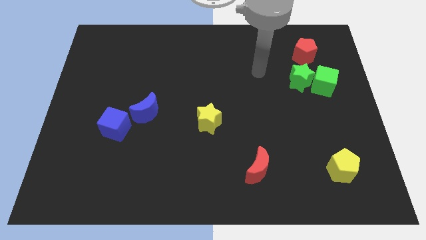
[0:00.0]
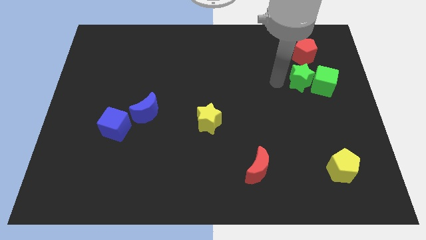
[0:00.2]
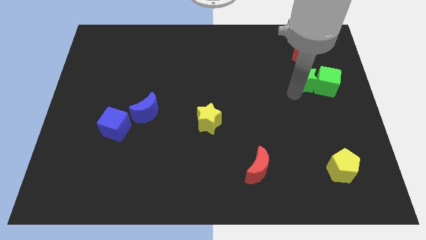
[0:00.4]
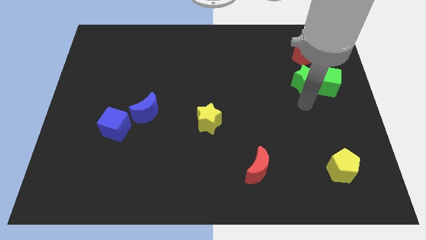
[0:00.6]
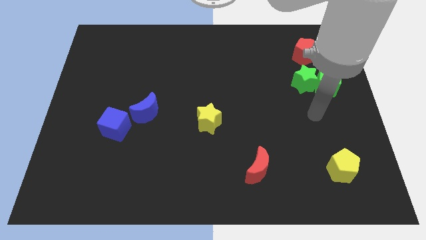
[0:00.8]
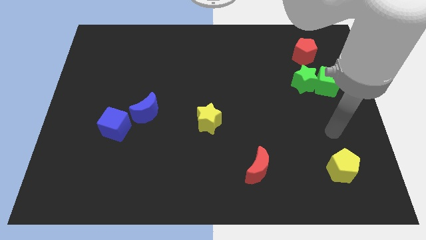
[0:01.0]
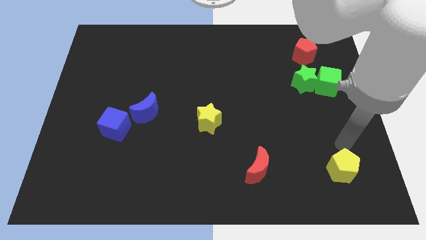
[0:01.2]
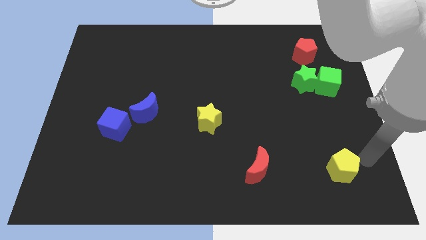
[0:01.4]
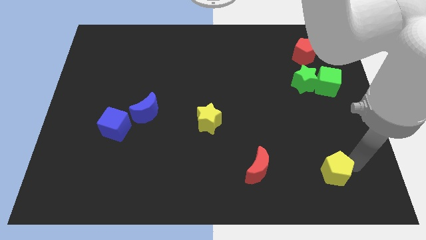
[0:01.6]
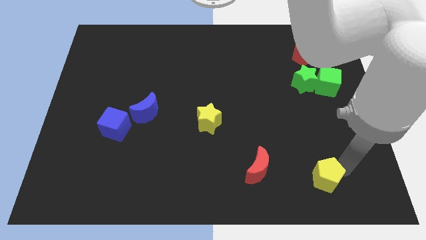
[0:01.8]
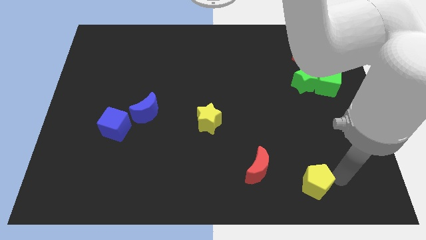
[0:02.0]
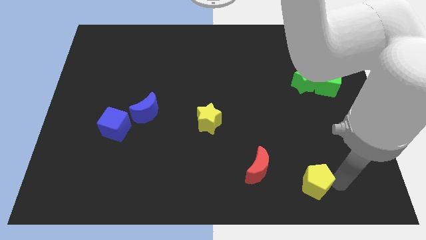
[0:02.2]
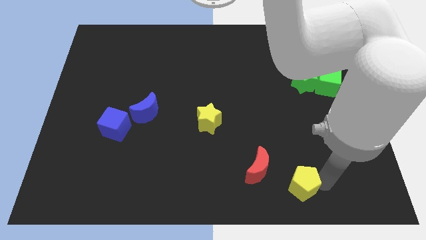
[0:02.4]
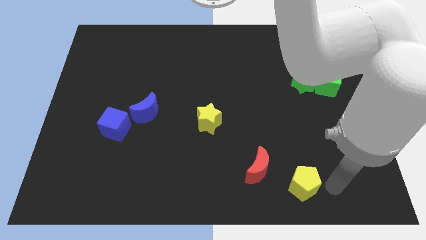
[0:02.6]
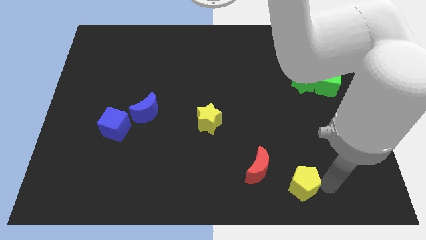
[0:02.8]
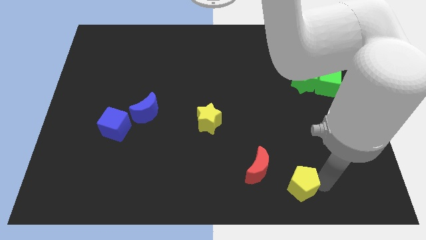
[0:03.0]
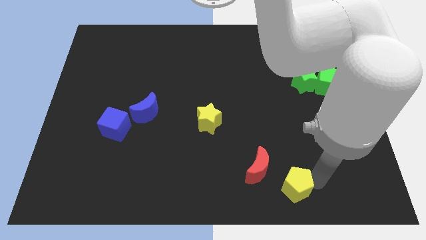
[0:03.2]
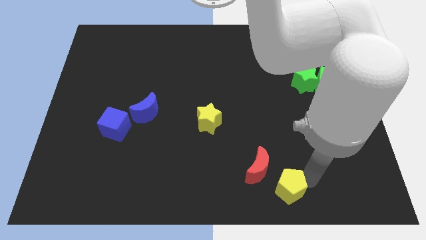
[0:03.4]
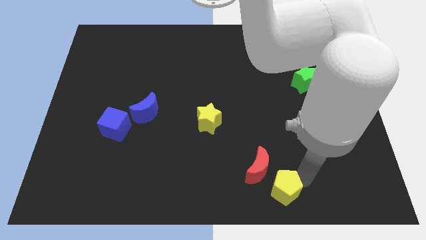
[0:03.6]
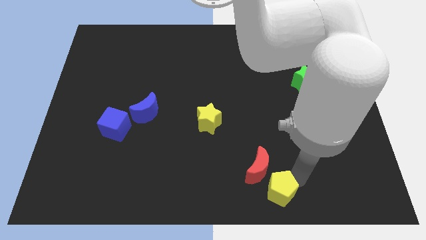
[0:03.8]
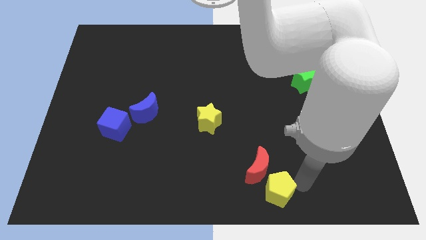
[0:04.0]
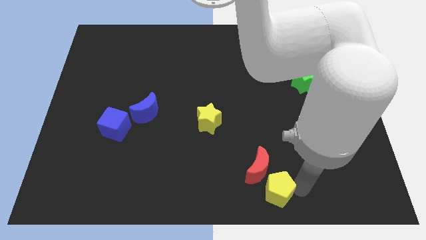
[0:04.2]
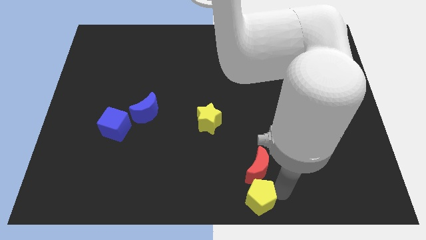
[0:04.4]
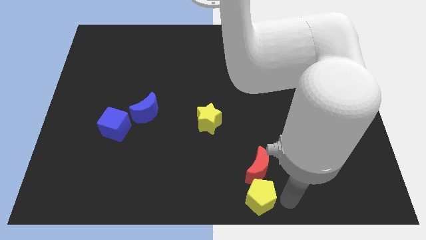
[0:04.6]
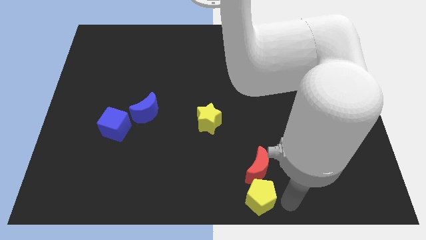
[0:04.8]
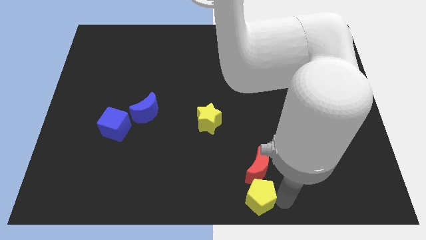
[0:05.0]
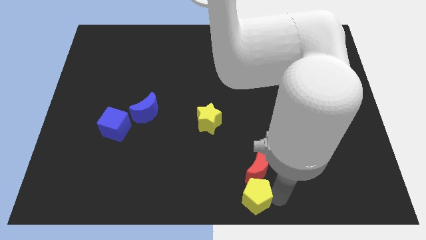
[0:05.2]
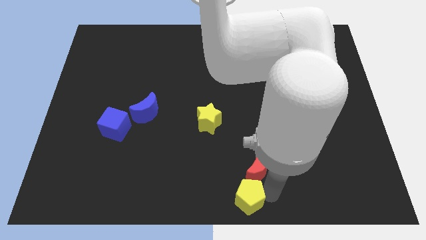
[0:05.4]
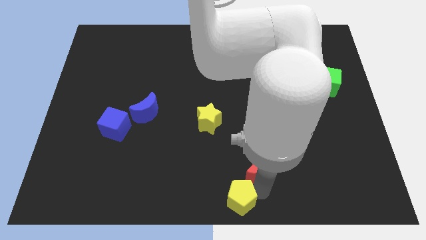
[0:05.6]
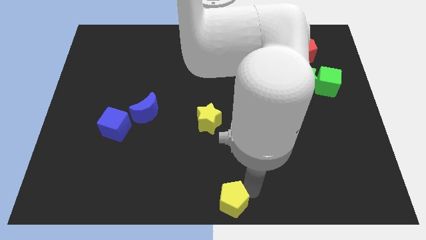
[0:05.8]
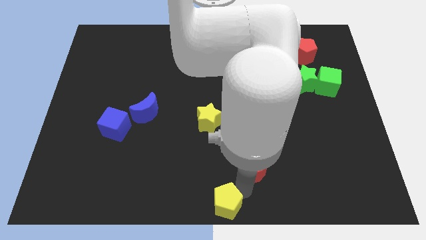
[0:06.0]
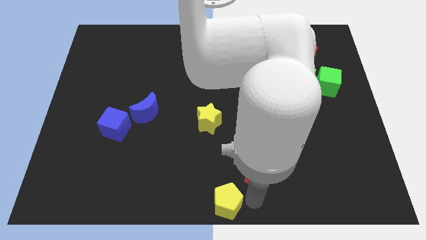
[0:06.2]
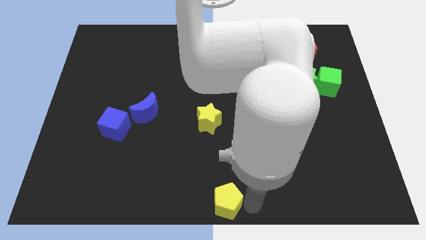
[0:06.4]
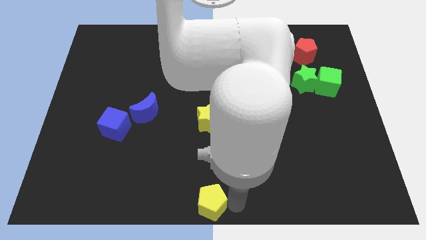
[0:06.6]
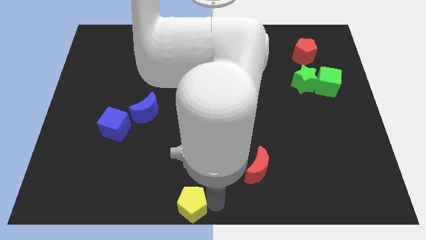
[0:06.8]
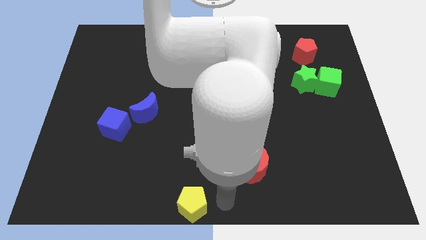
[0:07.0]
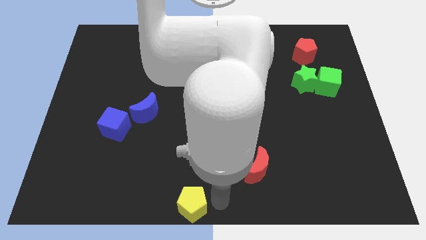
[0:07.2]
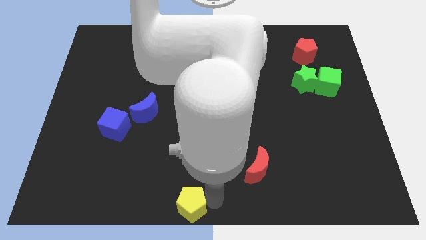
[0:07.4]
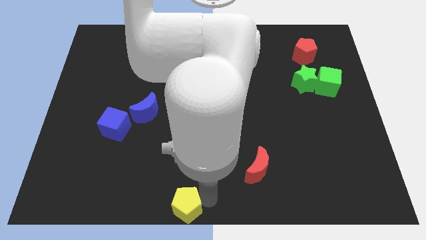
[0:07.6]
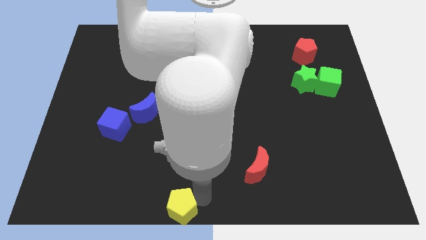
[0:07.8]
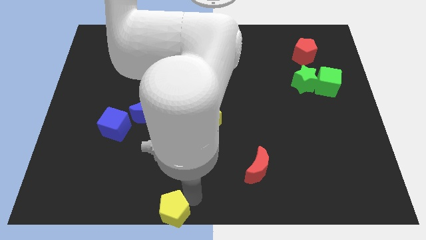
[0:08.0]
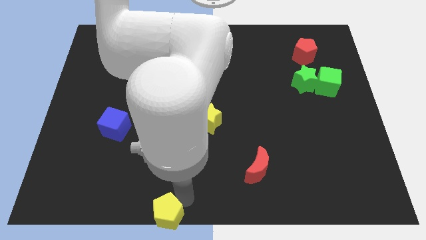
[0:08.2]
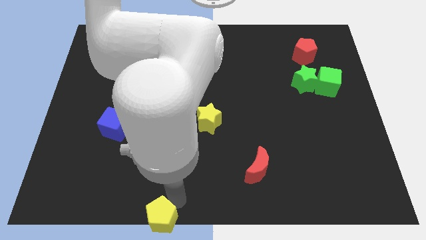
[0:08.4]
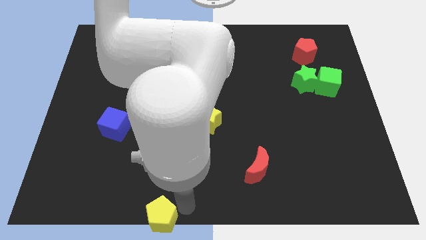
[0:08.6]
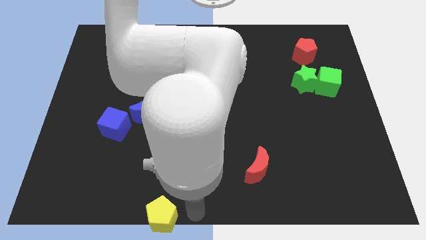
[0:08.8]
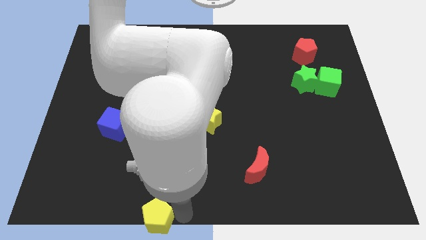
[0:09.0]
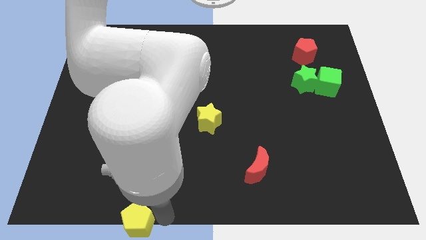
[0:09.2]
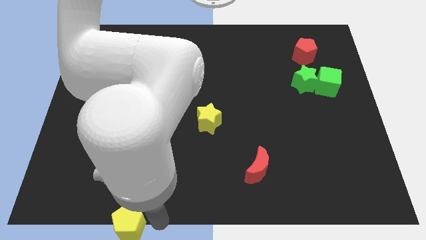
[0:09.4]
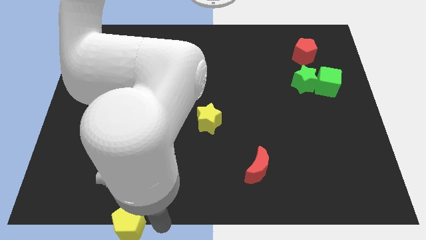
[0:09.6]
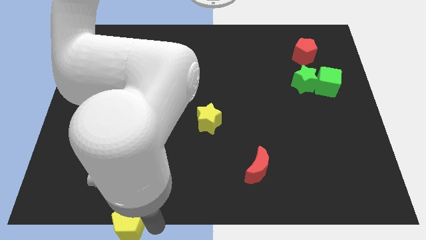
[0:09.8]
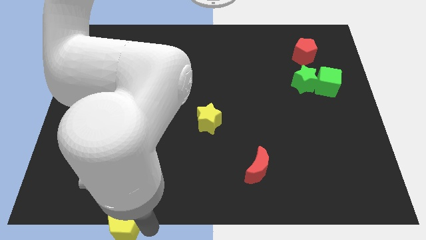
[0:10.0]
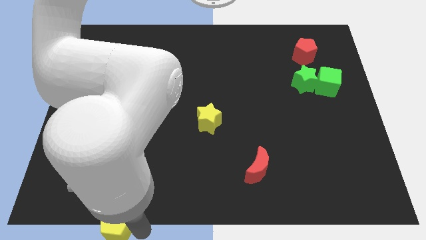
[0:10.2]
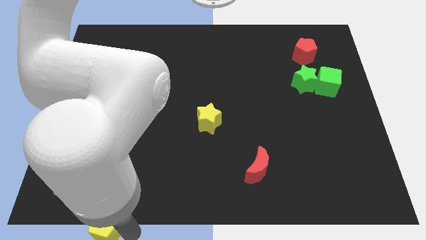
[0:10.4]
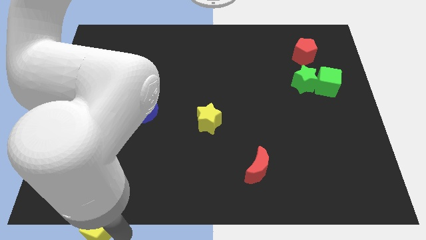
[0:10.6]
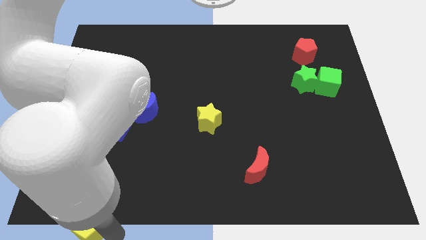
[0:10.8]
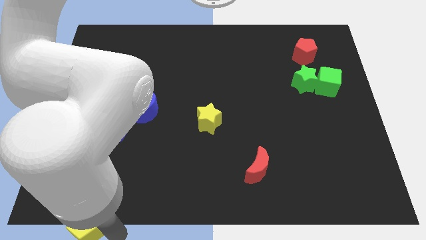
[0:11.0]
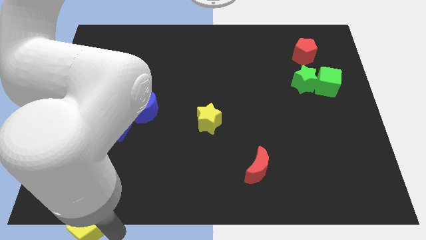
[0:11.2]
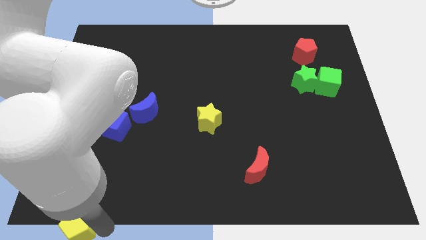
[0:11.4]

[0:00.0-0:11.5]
move the yellow pentagon to the bottom left corner

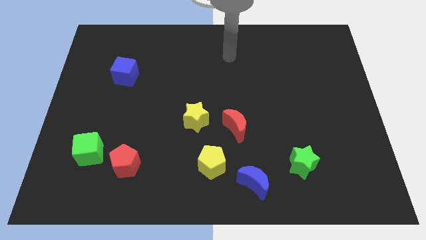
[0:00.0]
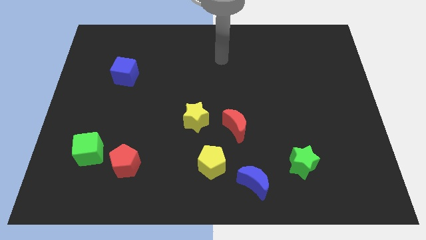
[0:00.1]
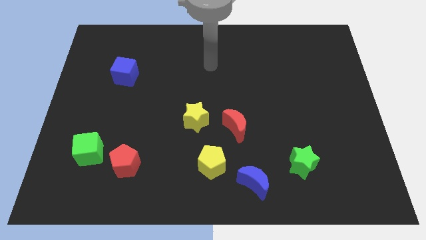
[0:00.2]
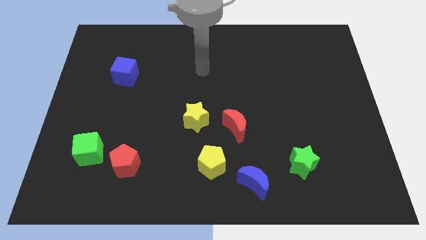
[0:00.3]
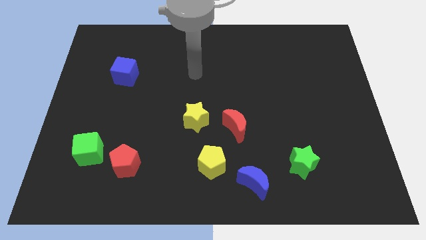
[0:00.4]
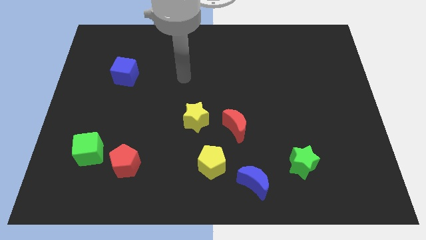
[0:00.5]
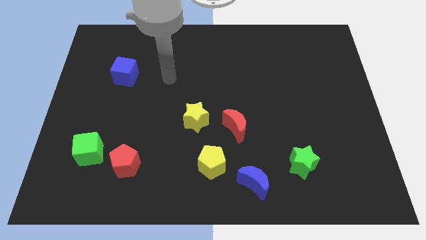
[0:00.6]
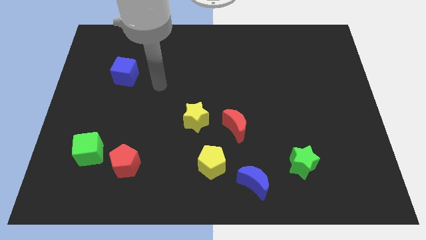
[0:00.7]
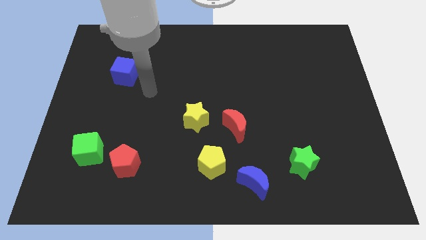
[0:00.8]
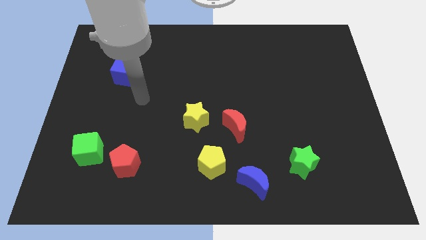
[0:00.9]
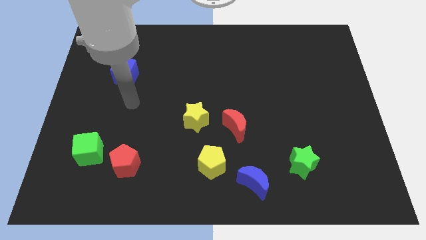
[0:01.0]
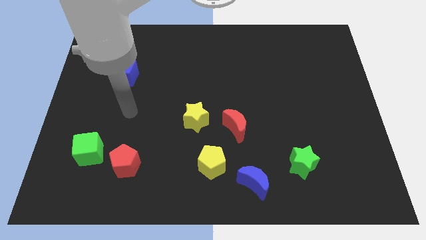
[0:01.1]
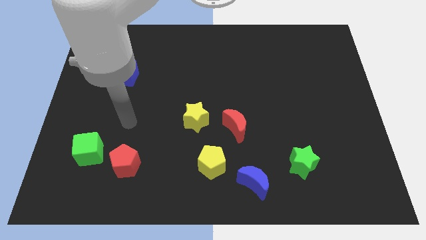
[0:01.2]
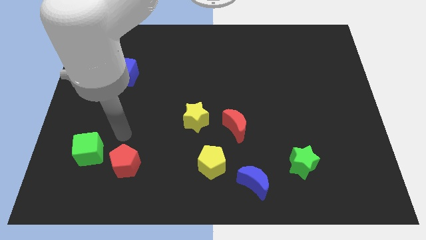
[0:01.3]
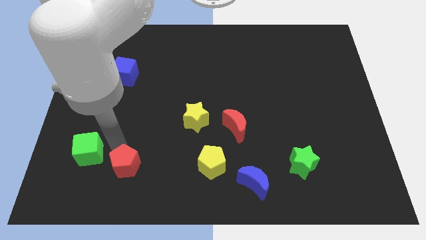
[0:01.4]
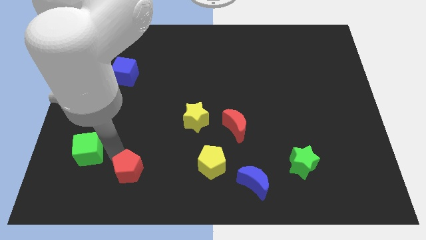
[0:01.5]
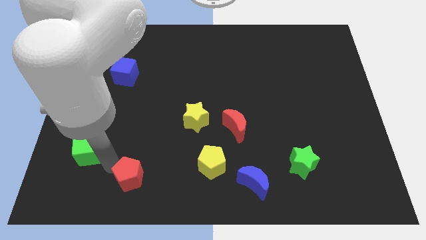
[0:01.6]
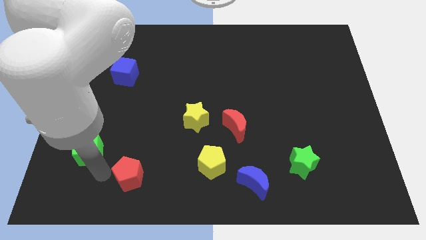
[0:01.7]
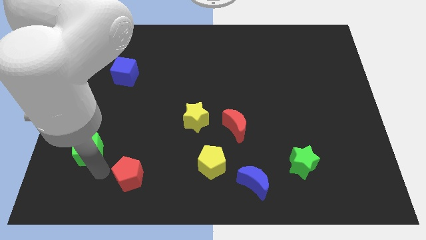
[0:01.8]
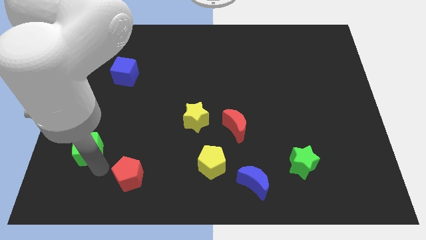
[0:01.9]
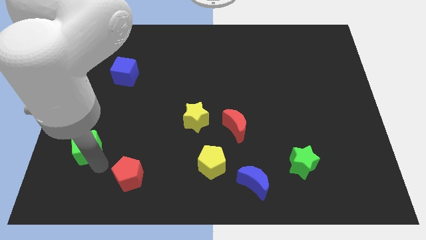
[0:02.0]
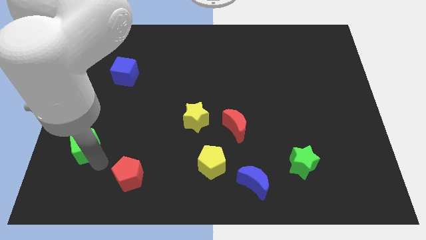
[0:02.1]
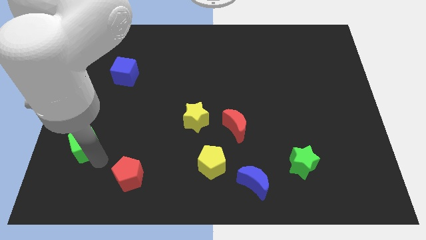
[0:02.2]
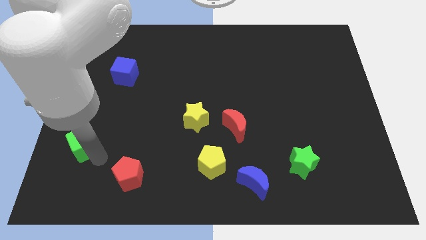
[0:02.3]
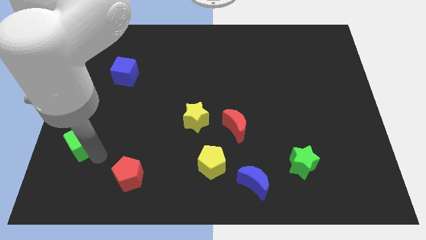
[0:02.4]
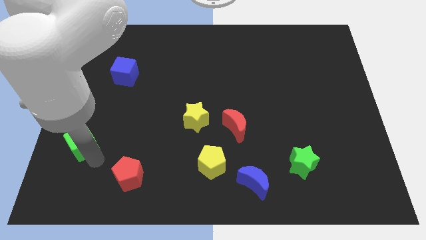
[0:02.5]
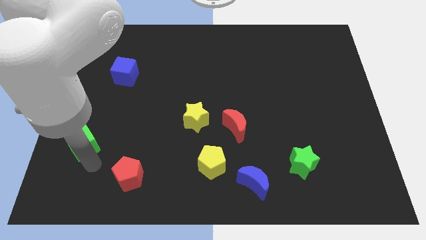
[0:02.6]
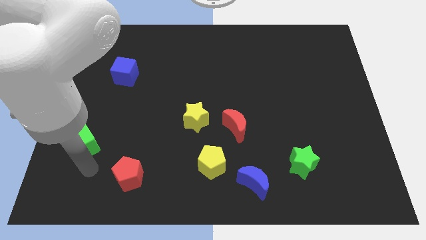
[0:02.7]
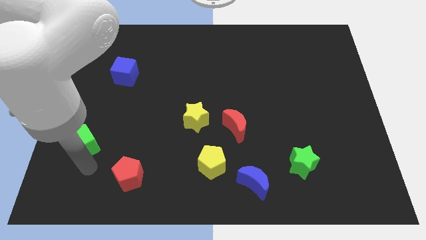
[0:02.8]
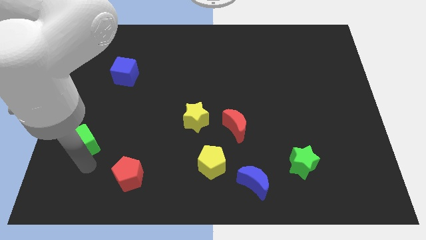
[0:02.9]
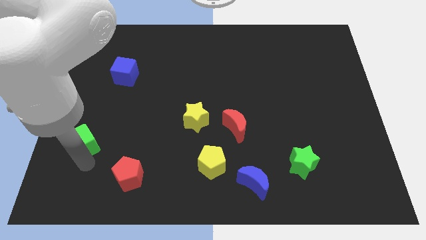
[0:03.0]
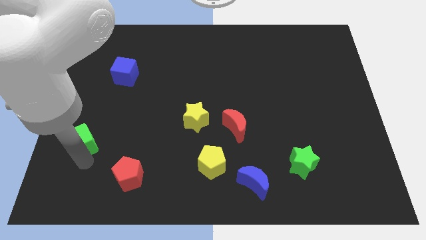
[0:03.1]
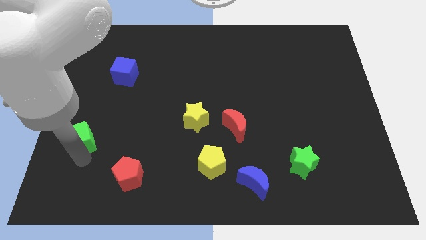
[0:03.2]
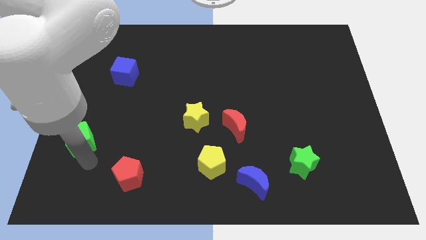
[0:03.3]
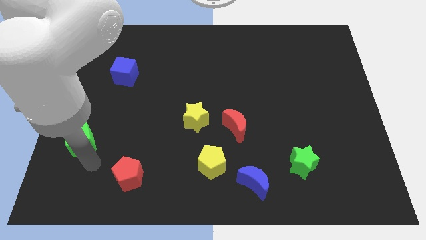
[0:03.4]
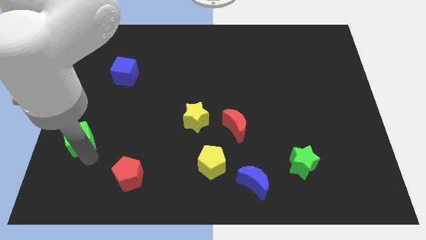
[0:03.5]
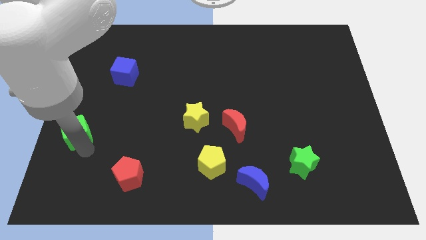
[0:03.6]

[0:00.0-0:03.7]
slide the green cube to the left side
